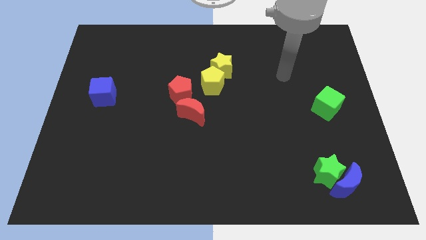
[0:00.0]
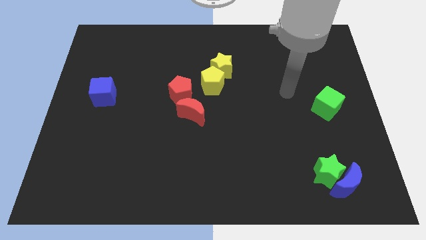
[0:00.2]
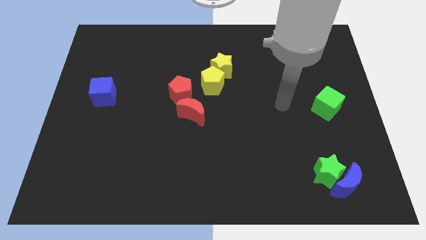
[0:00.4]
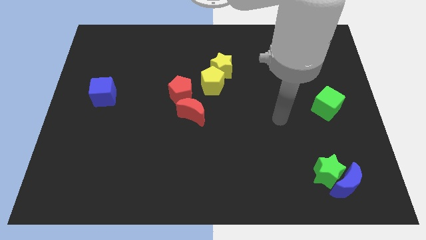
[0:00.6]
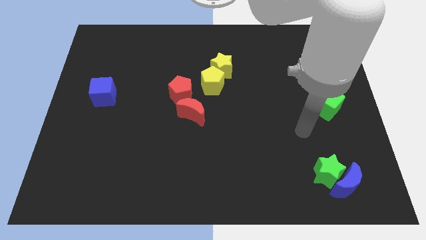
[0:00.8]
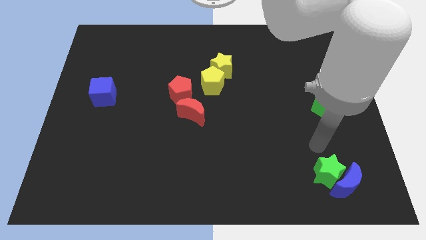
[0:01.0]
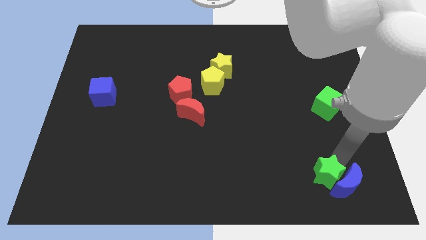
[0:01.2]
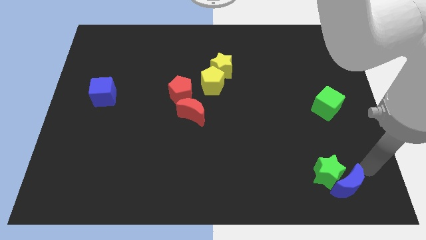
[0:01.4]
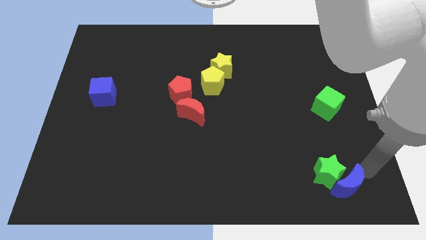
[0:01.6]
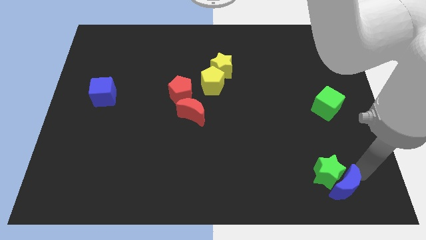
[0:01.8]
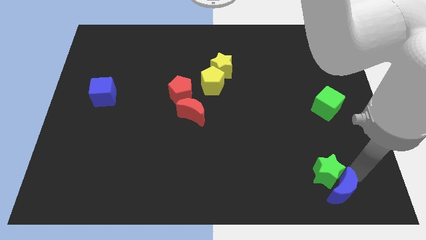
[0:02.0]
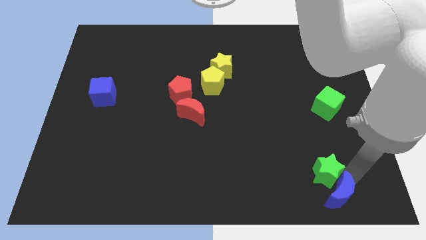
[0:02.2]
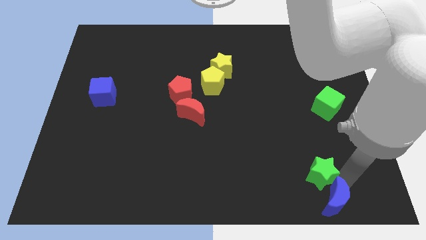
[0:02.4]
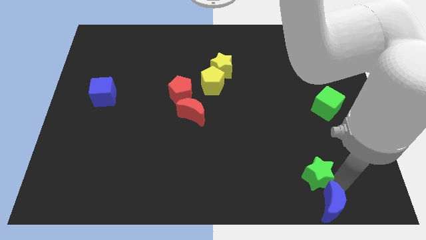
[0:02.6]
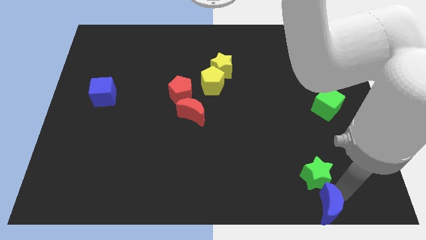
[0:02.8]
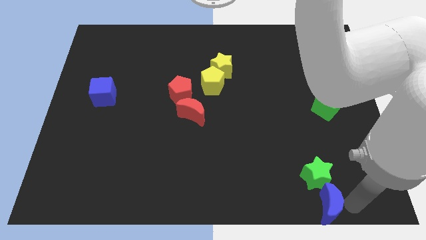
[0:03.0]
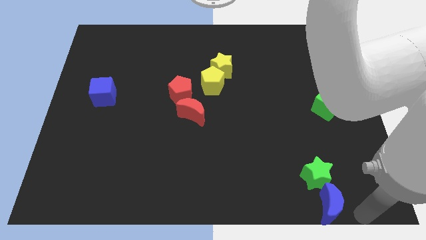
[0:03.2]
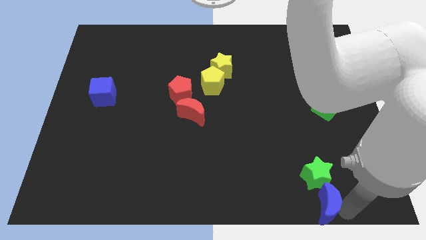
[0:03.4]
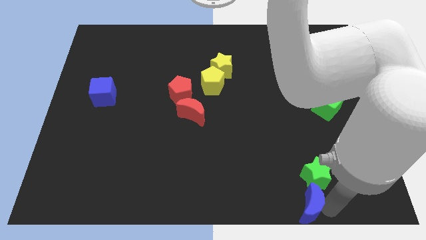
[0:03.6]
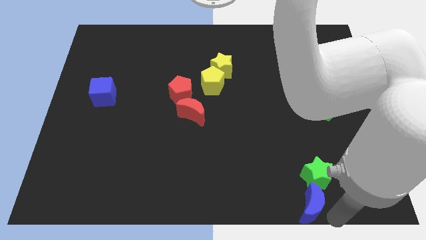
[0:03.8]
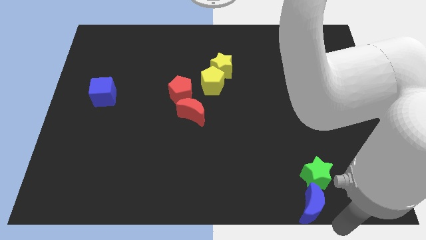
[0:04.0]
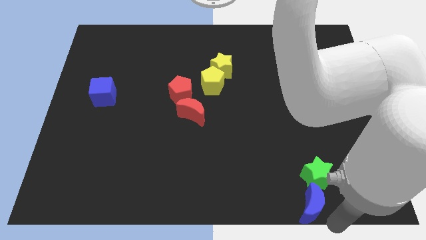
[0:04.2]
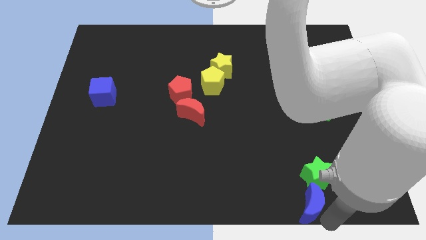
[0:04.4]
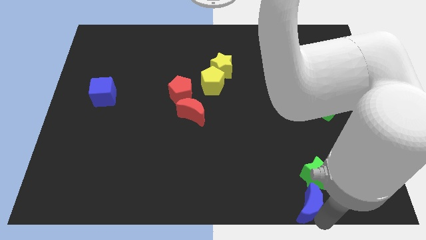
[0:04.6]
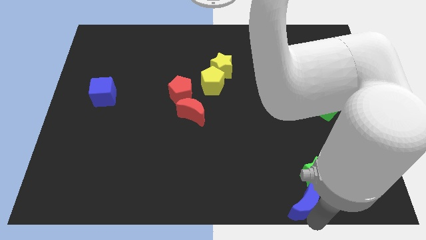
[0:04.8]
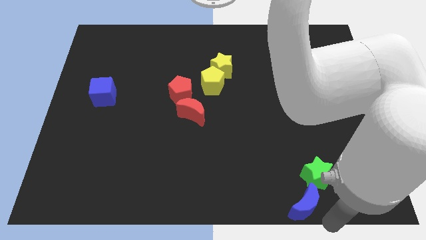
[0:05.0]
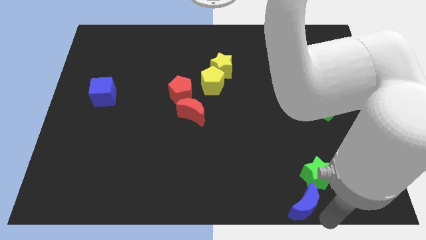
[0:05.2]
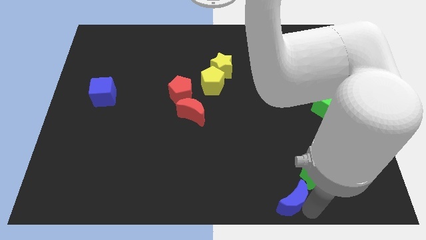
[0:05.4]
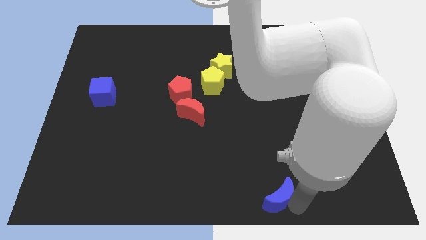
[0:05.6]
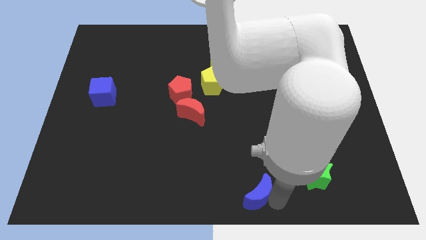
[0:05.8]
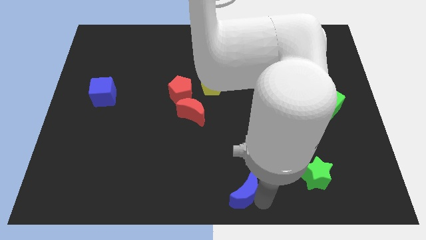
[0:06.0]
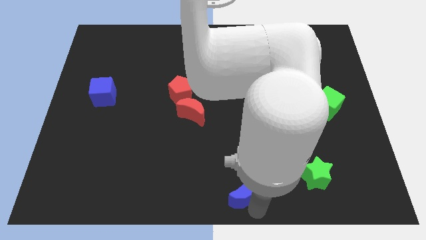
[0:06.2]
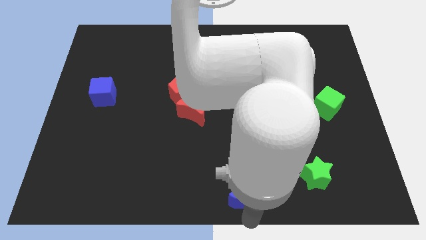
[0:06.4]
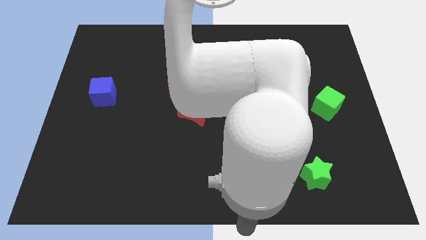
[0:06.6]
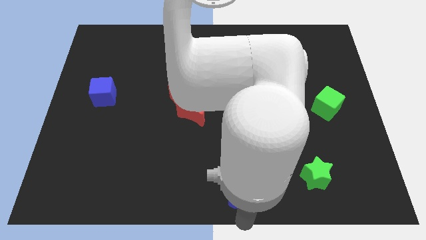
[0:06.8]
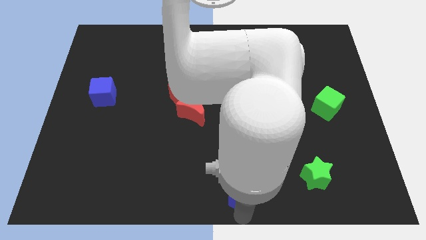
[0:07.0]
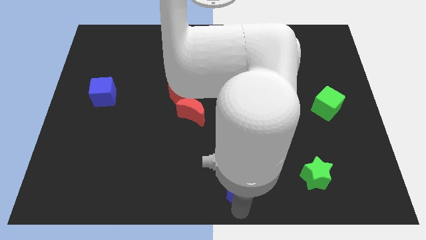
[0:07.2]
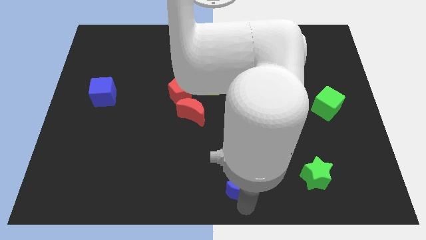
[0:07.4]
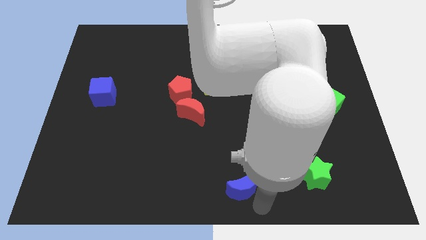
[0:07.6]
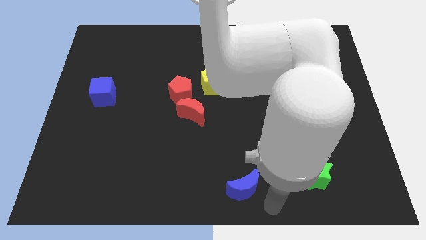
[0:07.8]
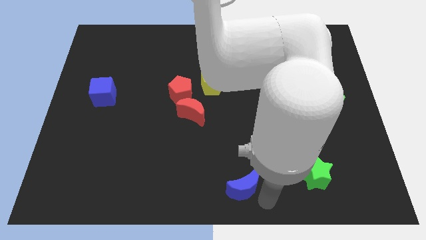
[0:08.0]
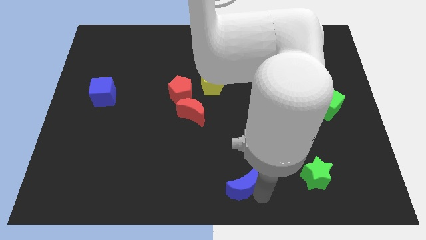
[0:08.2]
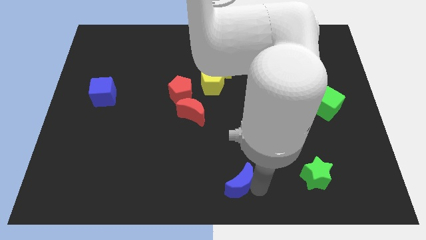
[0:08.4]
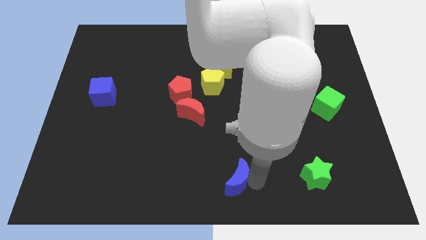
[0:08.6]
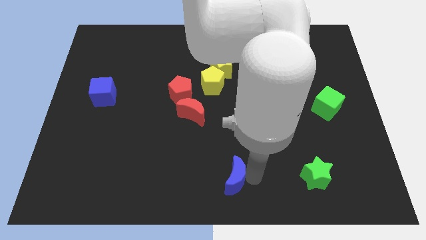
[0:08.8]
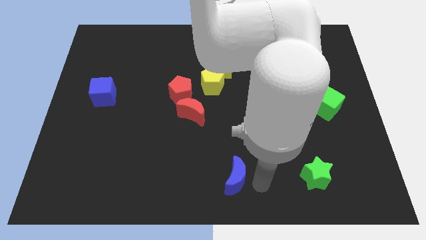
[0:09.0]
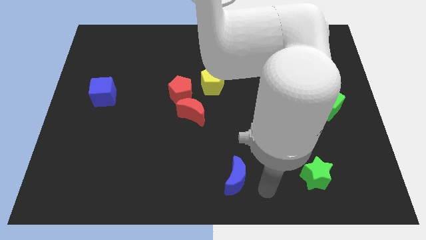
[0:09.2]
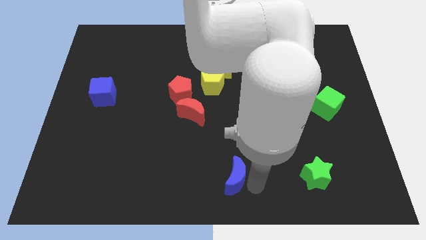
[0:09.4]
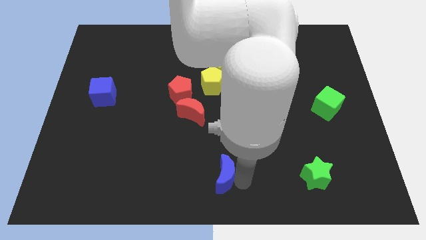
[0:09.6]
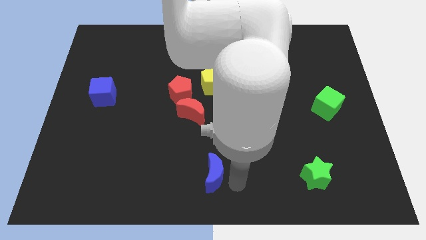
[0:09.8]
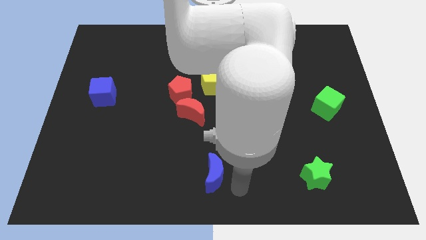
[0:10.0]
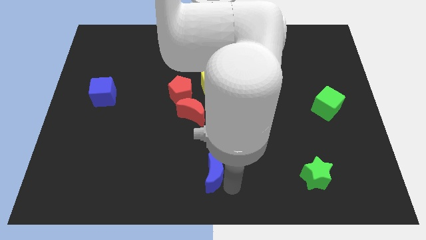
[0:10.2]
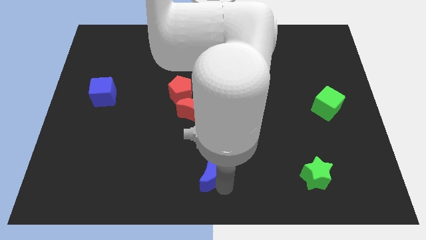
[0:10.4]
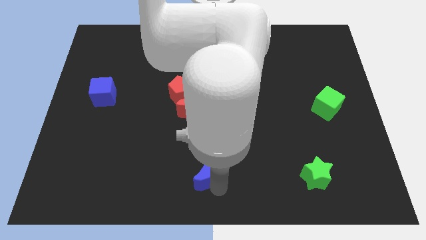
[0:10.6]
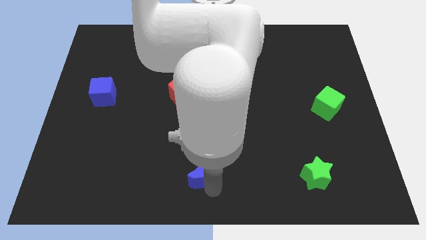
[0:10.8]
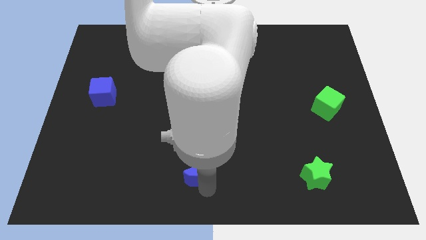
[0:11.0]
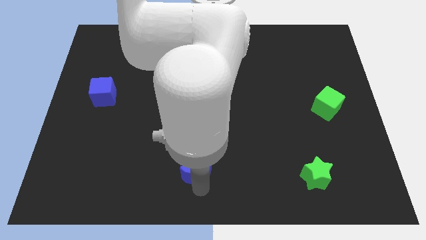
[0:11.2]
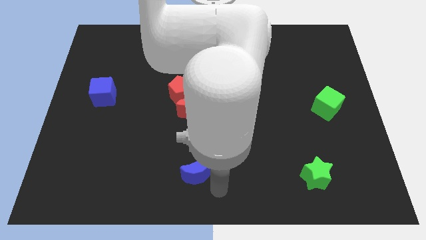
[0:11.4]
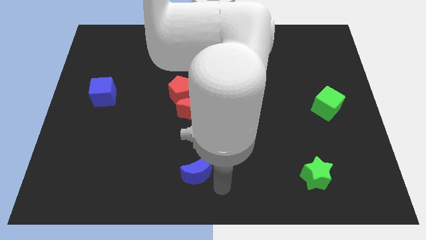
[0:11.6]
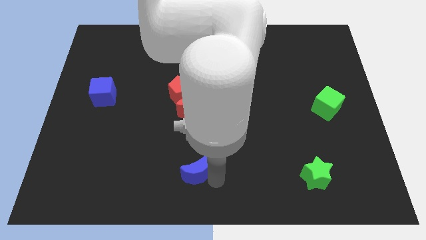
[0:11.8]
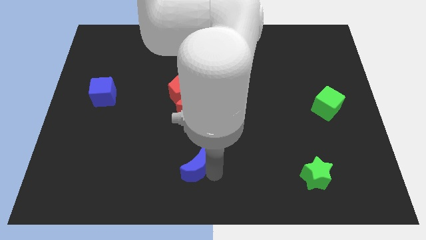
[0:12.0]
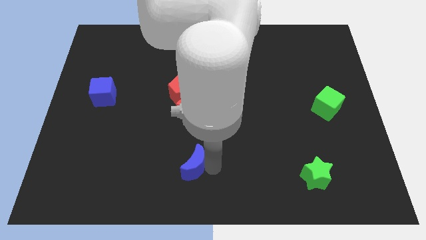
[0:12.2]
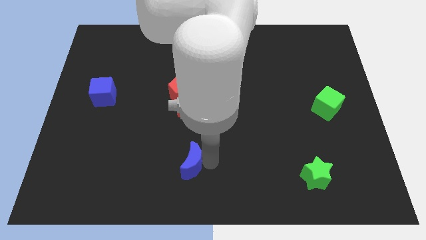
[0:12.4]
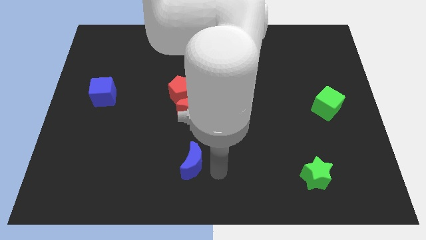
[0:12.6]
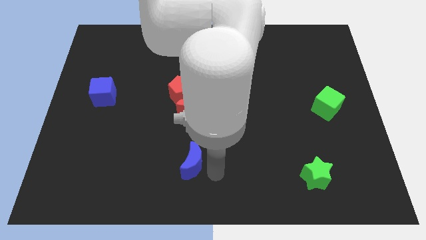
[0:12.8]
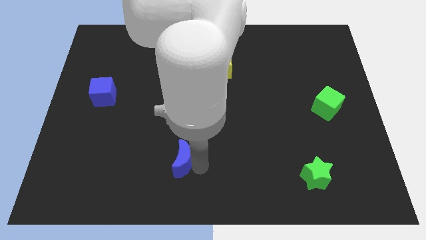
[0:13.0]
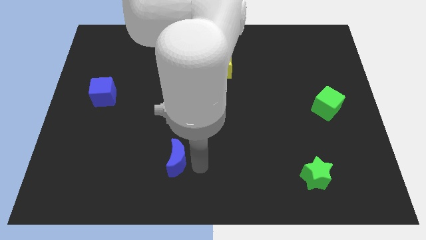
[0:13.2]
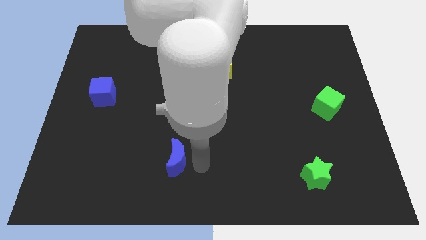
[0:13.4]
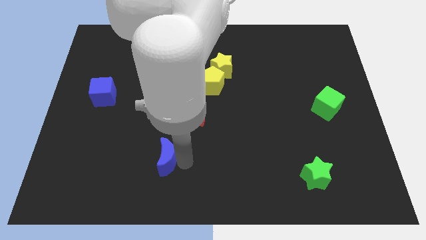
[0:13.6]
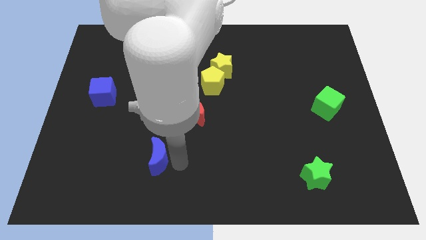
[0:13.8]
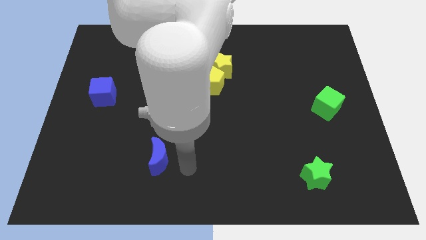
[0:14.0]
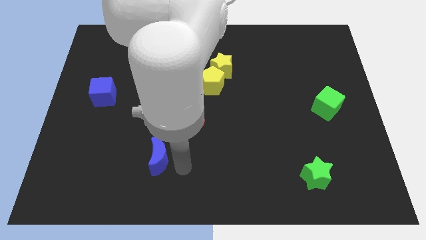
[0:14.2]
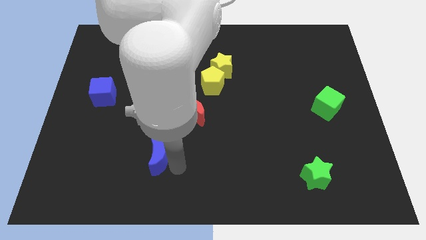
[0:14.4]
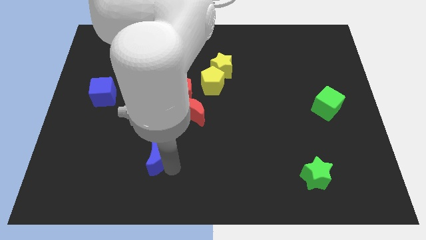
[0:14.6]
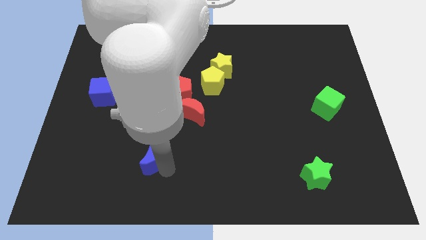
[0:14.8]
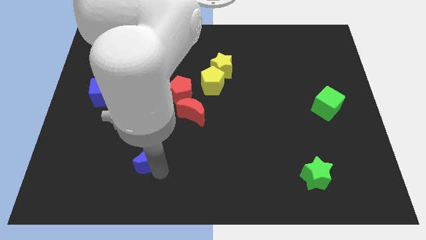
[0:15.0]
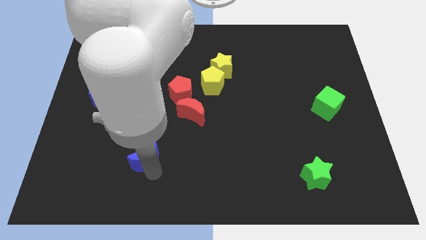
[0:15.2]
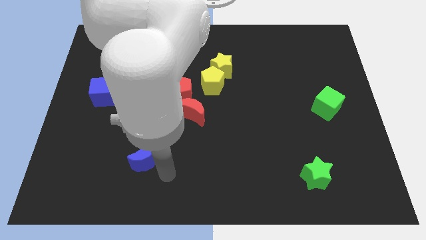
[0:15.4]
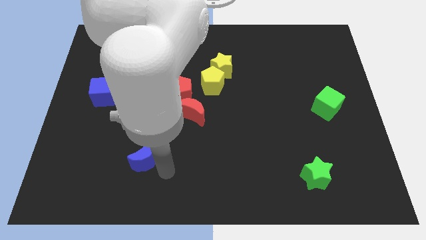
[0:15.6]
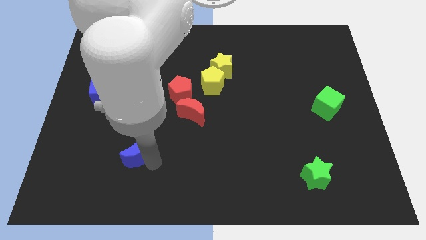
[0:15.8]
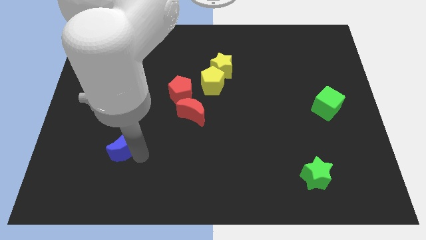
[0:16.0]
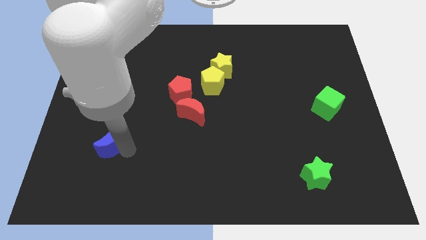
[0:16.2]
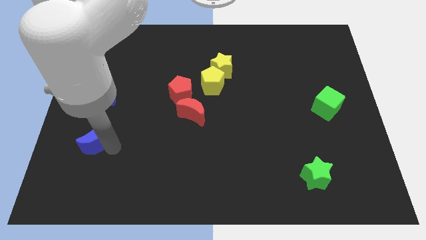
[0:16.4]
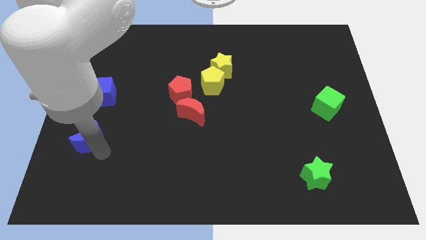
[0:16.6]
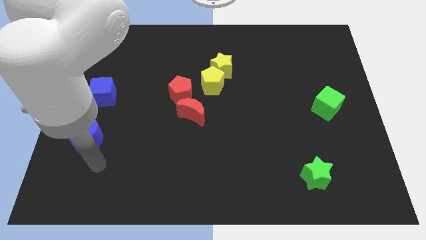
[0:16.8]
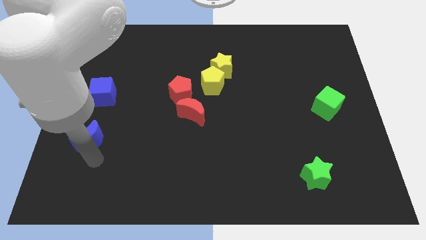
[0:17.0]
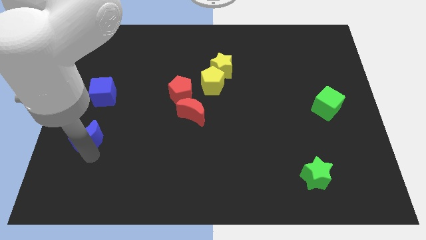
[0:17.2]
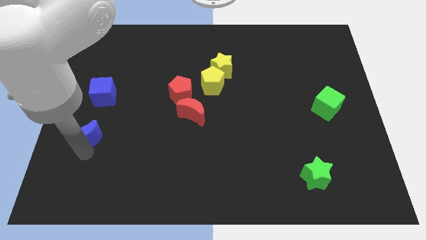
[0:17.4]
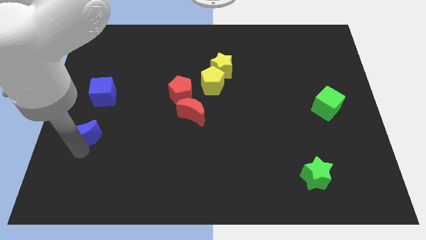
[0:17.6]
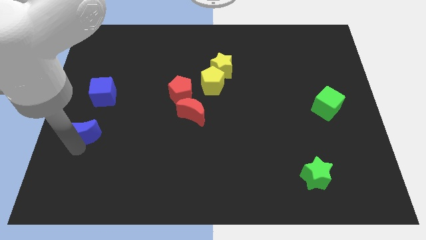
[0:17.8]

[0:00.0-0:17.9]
move the blue moon to the left side of the board
